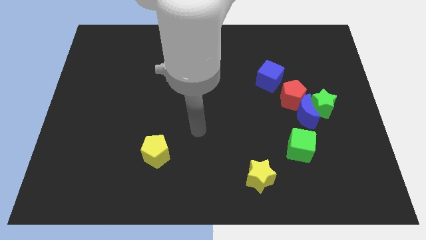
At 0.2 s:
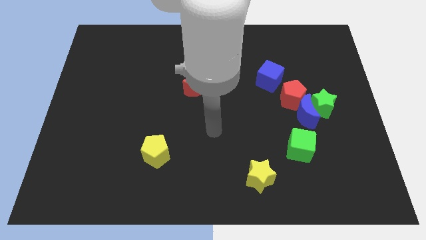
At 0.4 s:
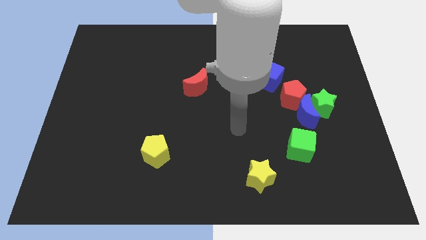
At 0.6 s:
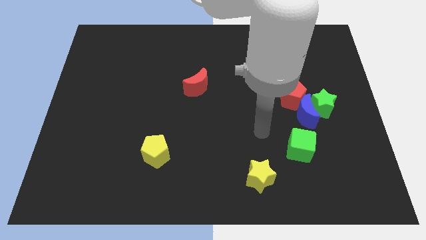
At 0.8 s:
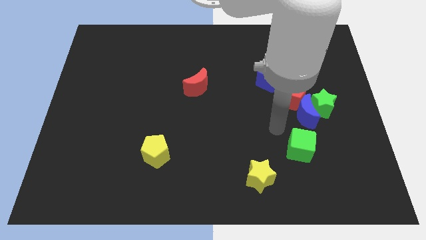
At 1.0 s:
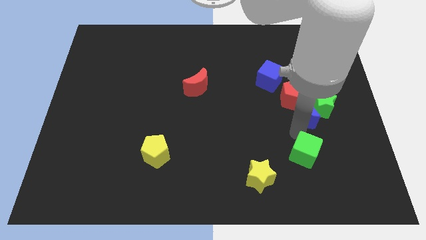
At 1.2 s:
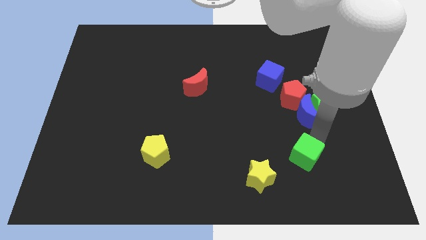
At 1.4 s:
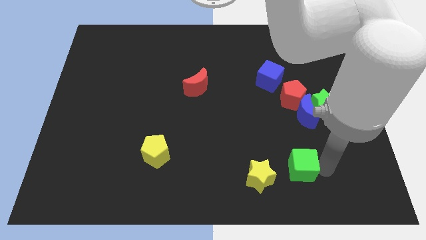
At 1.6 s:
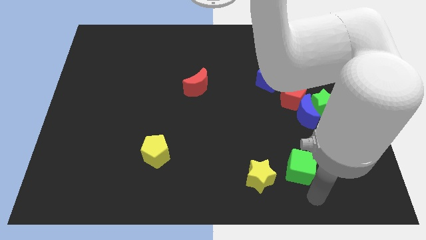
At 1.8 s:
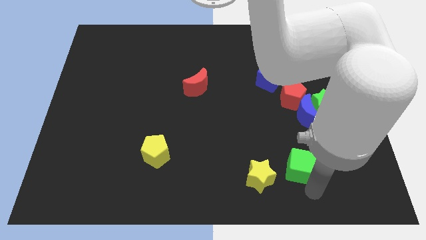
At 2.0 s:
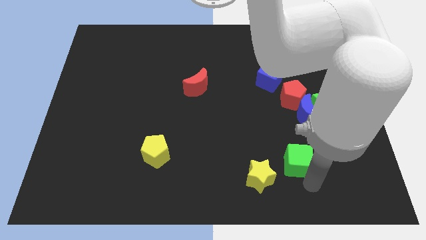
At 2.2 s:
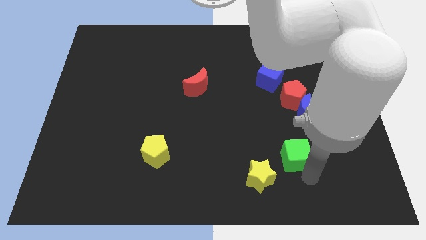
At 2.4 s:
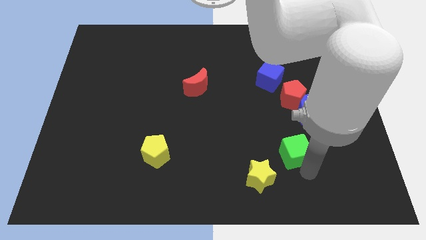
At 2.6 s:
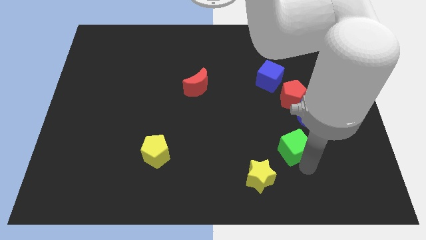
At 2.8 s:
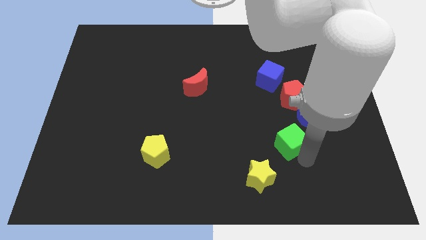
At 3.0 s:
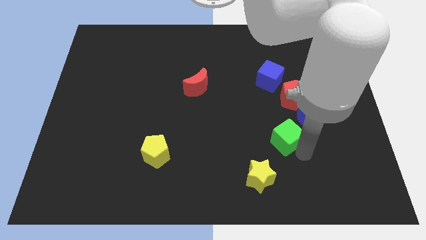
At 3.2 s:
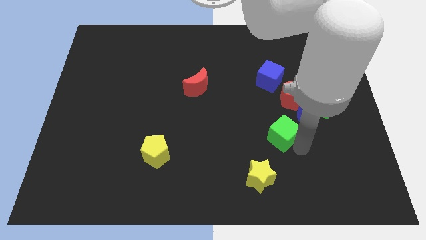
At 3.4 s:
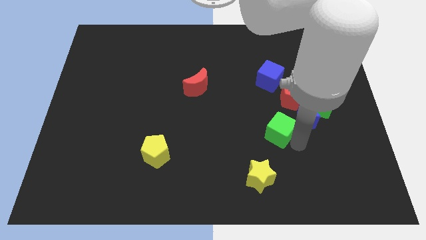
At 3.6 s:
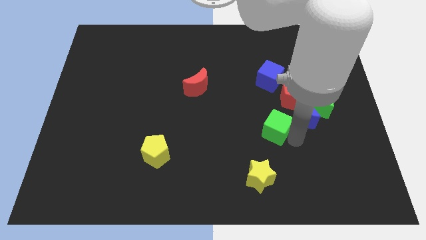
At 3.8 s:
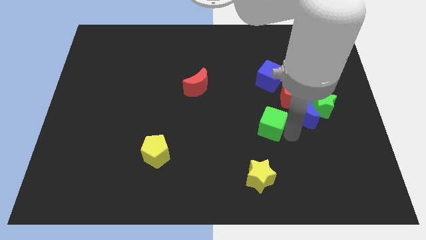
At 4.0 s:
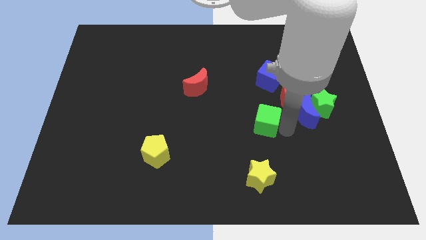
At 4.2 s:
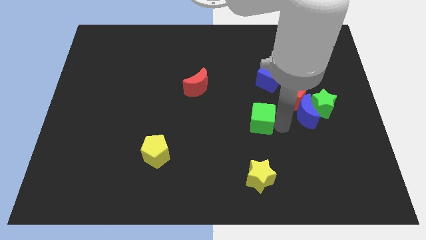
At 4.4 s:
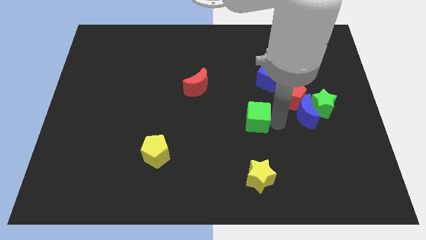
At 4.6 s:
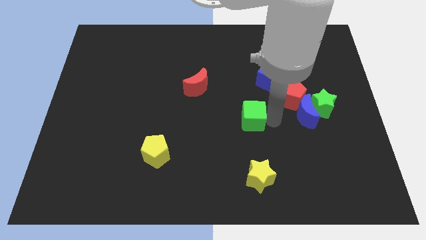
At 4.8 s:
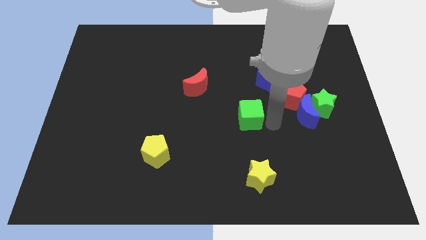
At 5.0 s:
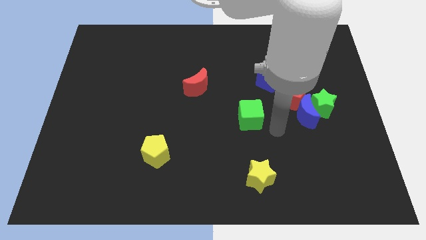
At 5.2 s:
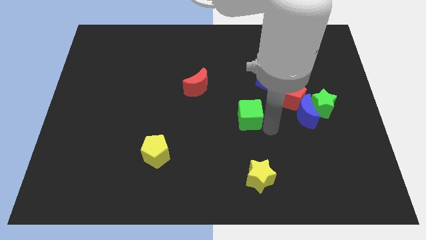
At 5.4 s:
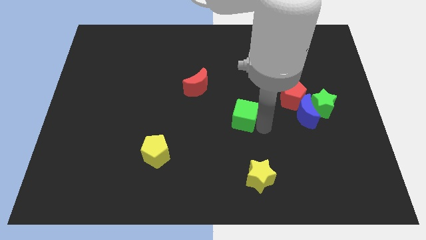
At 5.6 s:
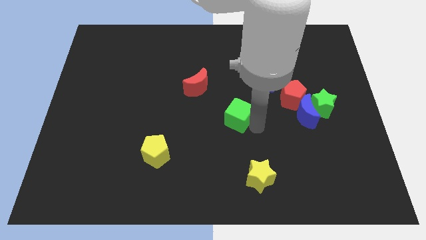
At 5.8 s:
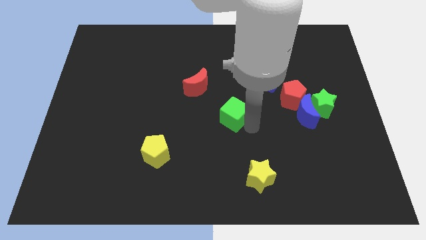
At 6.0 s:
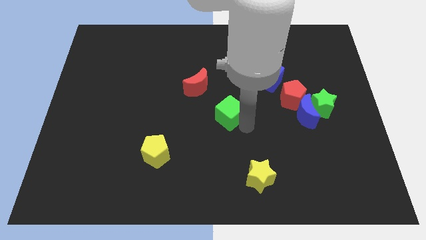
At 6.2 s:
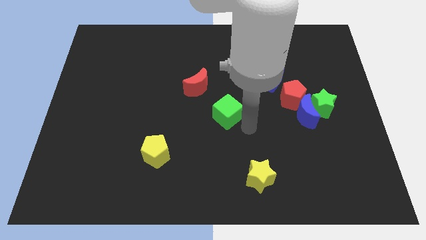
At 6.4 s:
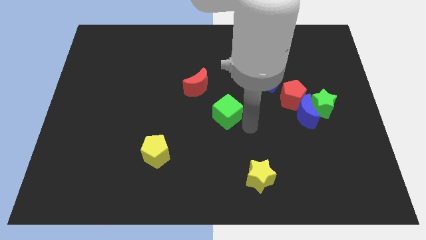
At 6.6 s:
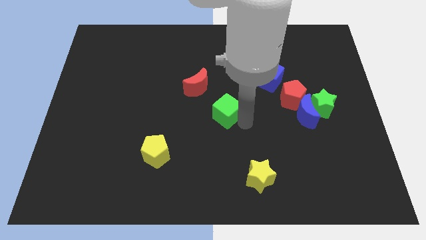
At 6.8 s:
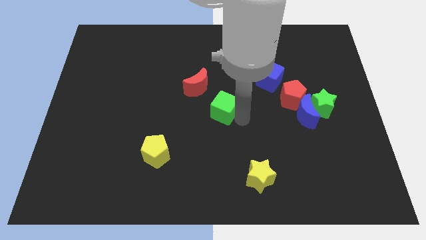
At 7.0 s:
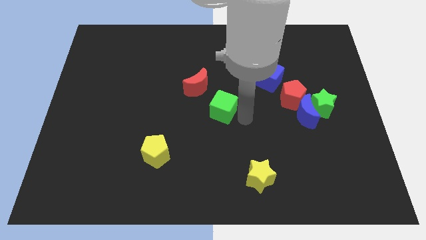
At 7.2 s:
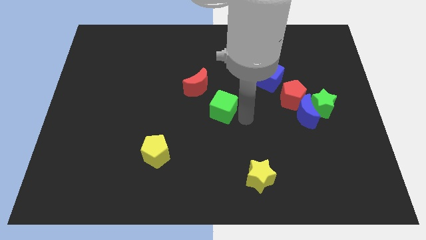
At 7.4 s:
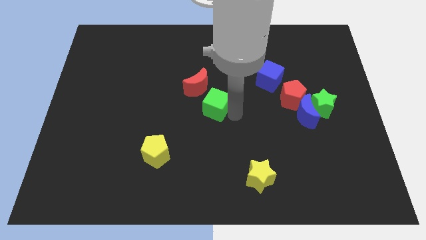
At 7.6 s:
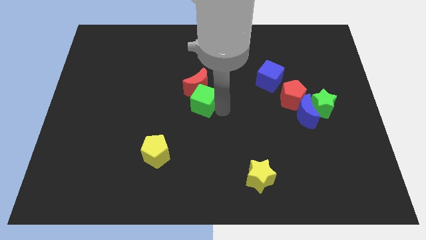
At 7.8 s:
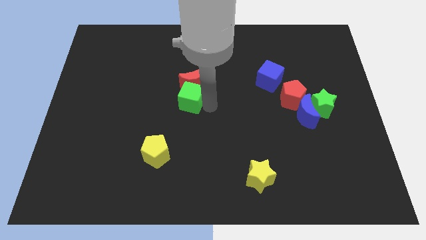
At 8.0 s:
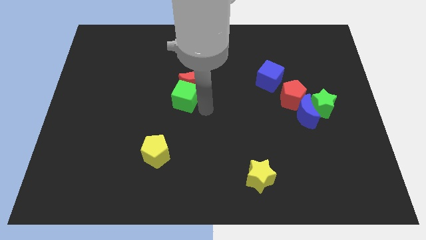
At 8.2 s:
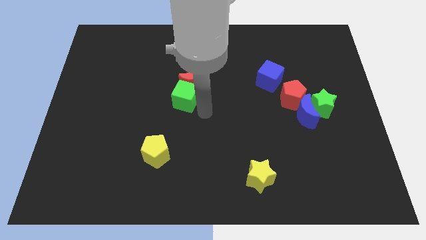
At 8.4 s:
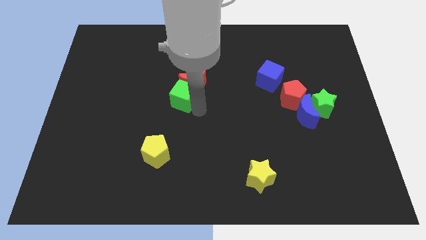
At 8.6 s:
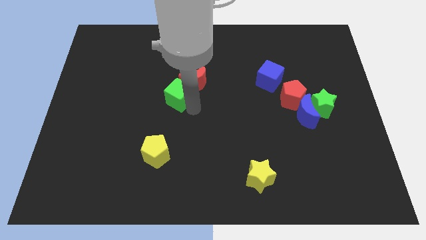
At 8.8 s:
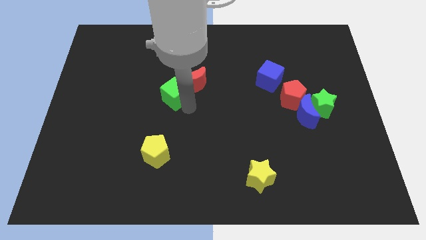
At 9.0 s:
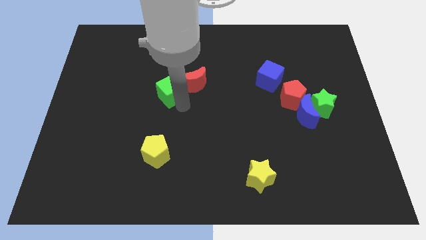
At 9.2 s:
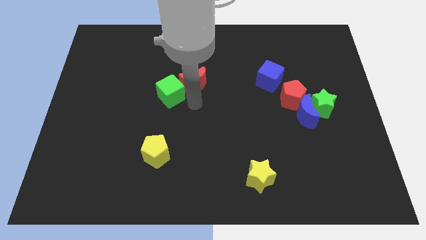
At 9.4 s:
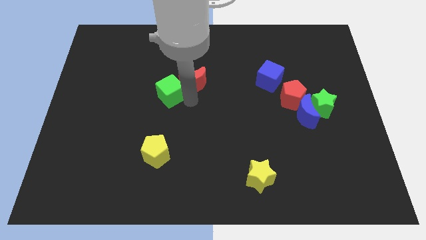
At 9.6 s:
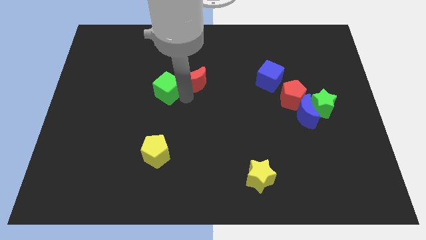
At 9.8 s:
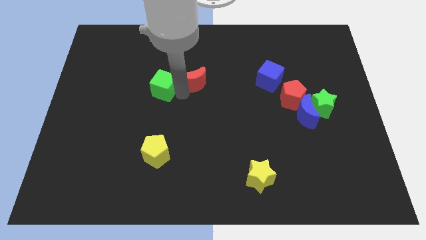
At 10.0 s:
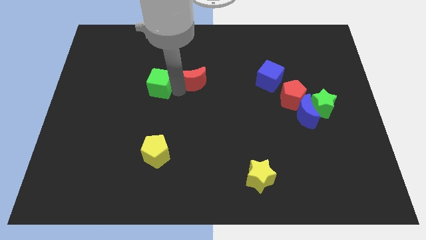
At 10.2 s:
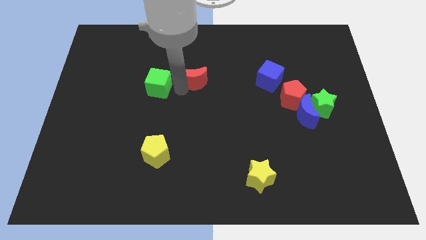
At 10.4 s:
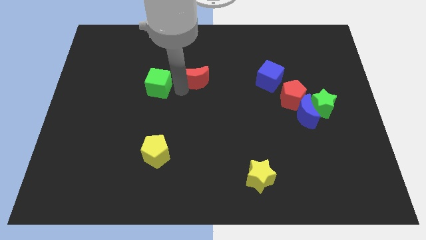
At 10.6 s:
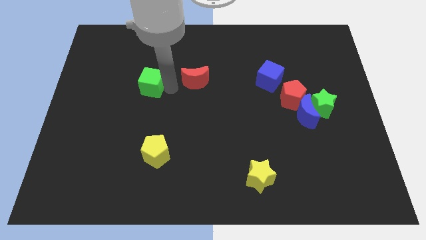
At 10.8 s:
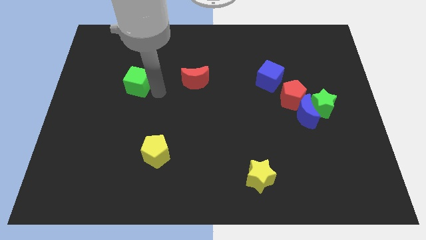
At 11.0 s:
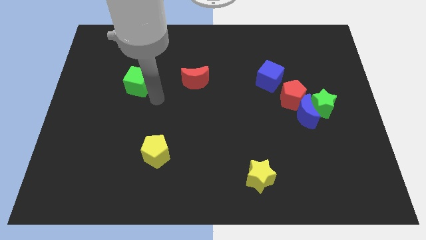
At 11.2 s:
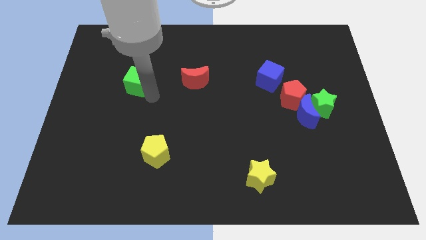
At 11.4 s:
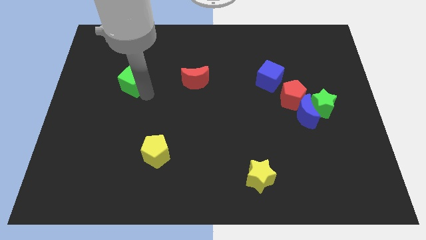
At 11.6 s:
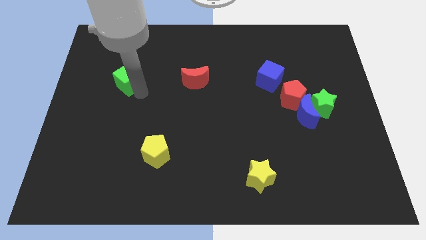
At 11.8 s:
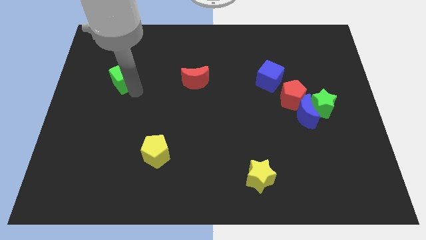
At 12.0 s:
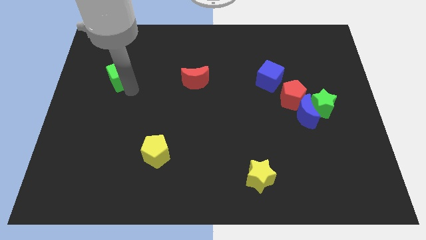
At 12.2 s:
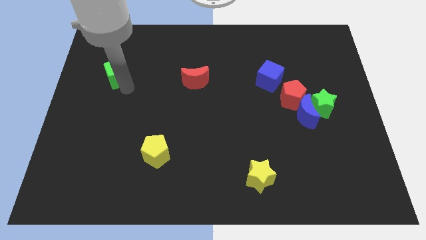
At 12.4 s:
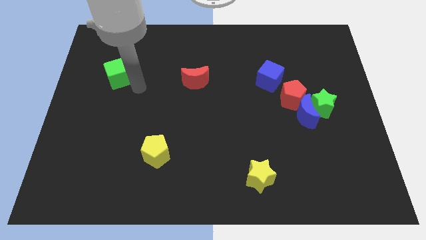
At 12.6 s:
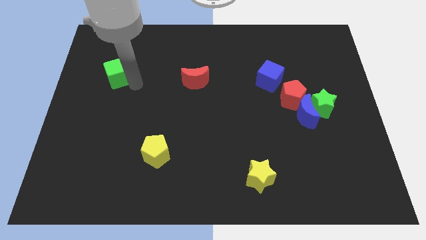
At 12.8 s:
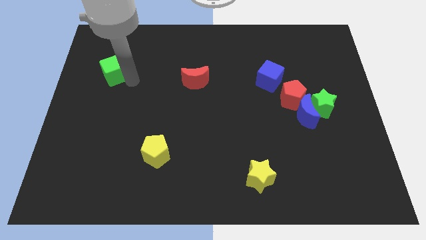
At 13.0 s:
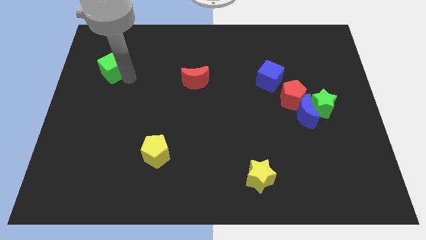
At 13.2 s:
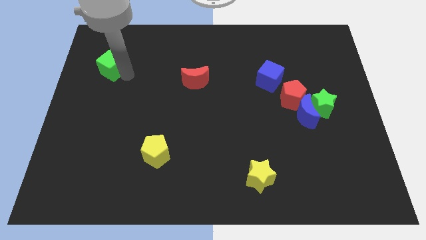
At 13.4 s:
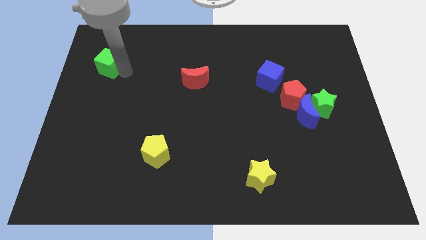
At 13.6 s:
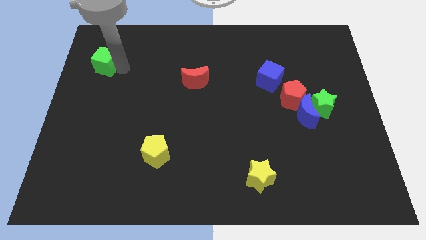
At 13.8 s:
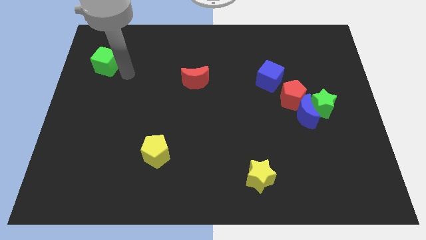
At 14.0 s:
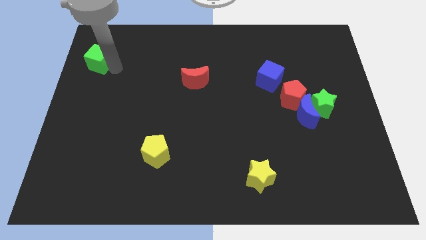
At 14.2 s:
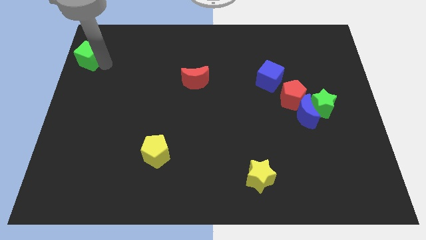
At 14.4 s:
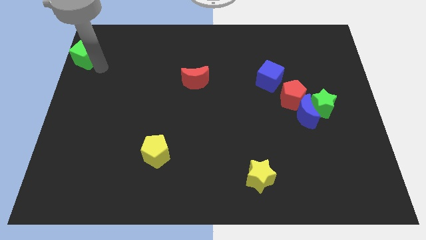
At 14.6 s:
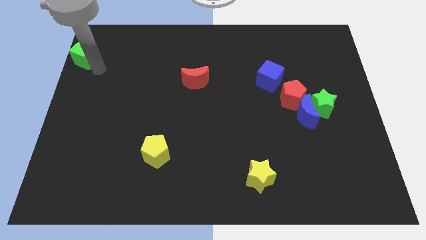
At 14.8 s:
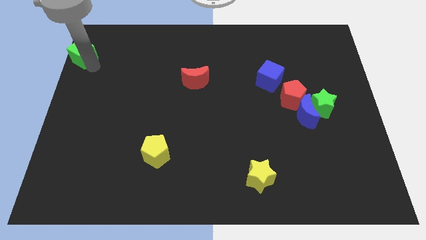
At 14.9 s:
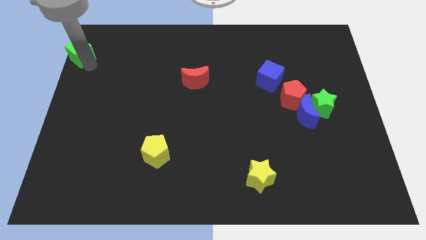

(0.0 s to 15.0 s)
put the green cube to the top left corner

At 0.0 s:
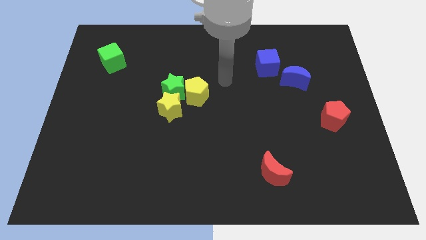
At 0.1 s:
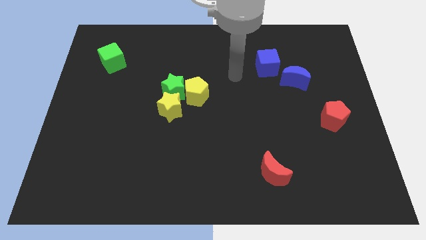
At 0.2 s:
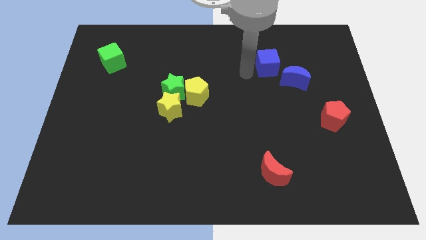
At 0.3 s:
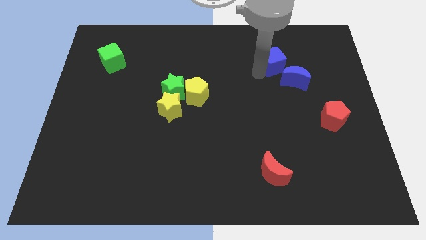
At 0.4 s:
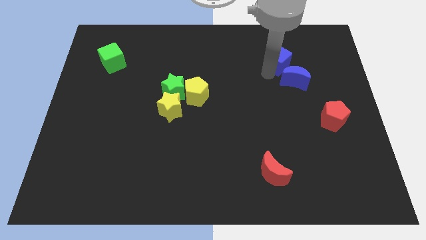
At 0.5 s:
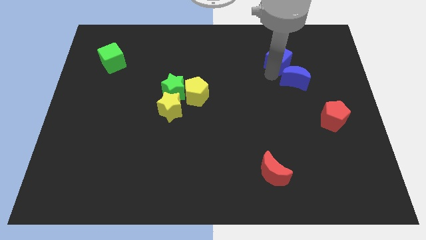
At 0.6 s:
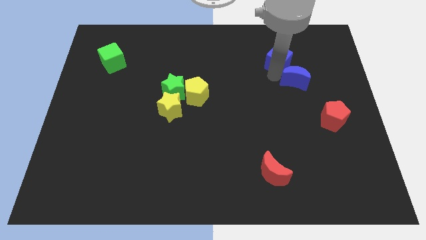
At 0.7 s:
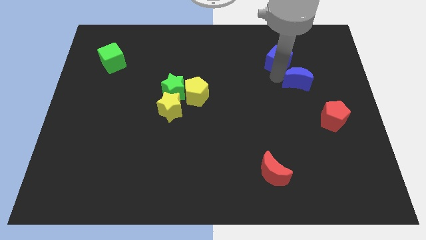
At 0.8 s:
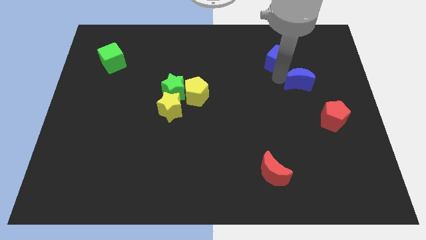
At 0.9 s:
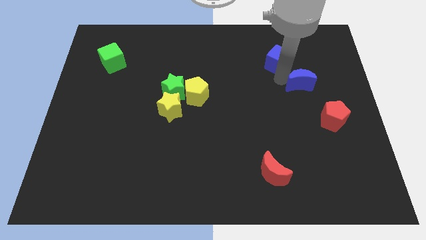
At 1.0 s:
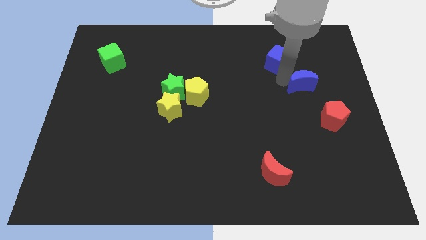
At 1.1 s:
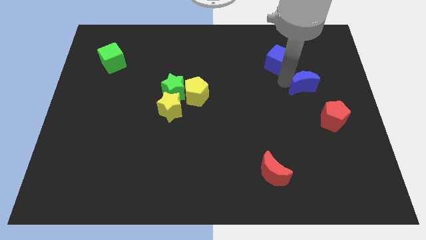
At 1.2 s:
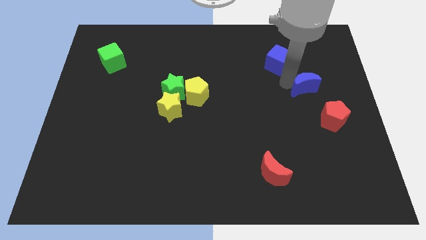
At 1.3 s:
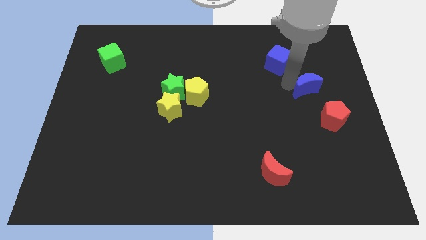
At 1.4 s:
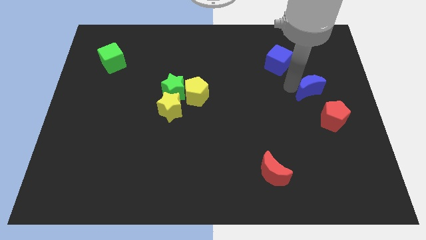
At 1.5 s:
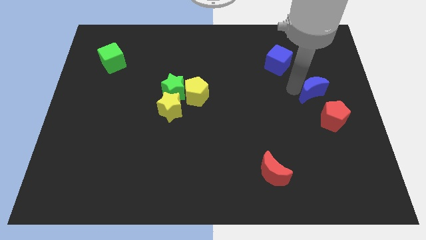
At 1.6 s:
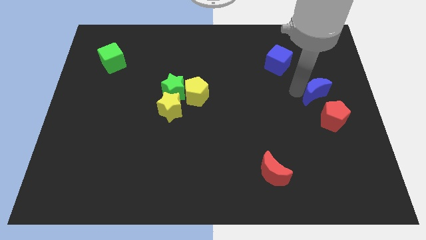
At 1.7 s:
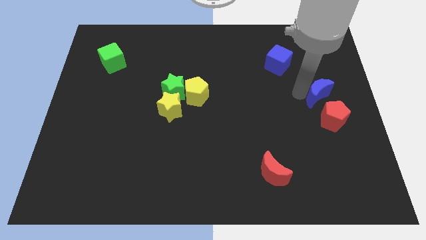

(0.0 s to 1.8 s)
slide the blue moon to the right side of the board
